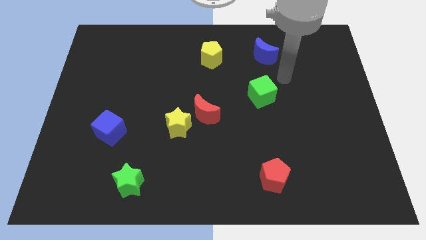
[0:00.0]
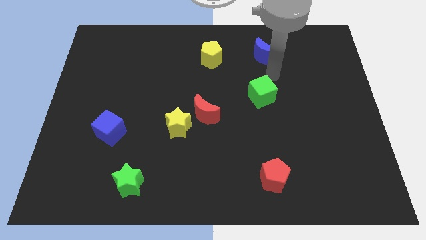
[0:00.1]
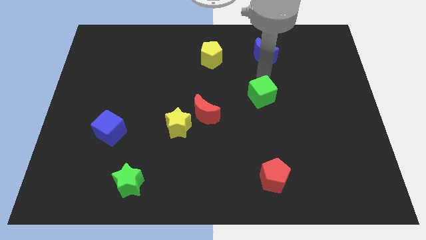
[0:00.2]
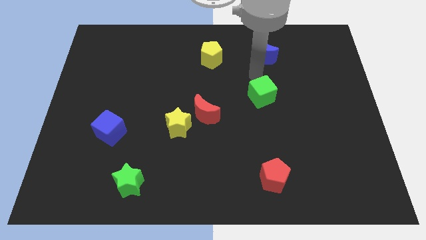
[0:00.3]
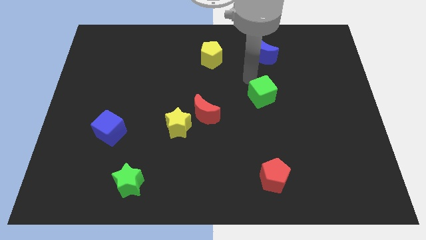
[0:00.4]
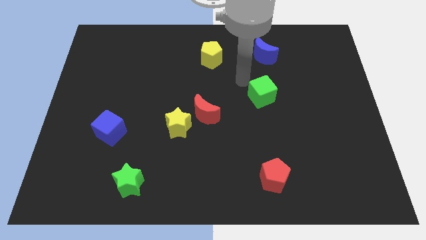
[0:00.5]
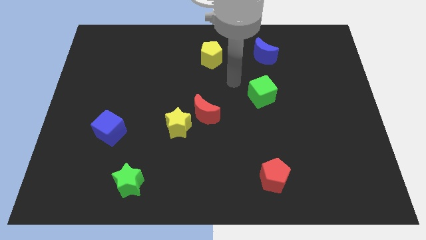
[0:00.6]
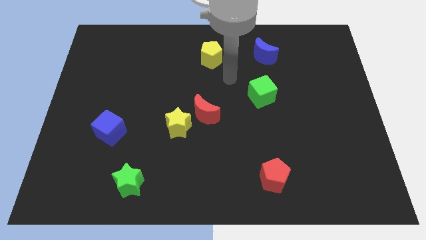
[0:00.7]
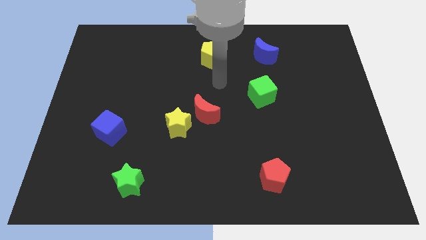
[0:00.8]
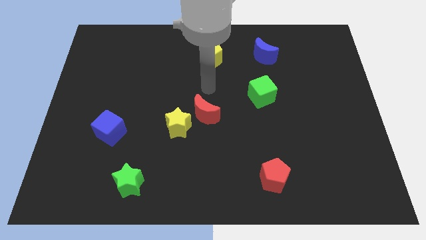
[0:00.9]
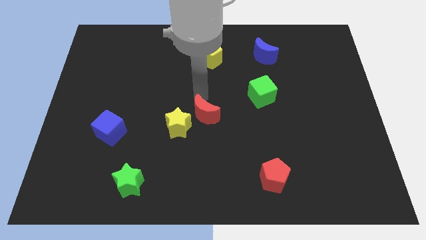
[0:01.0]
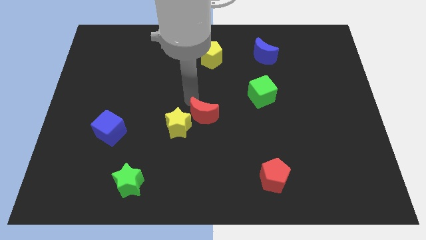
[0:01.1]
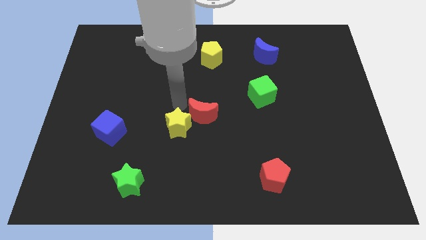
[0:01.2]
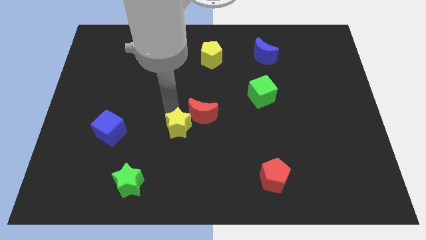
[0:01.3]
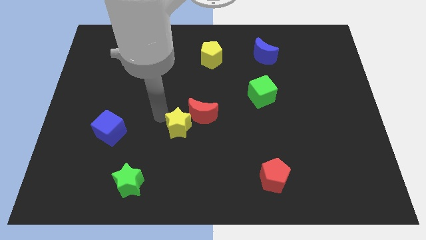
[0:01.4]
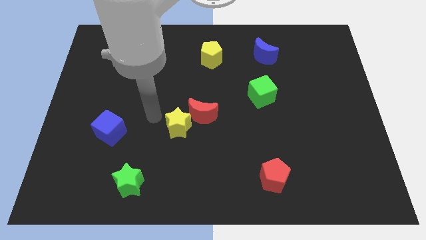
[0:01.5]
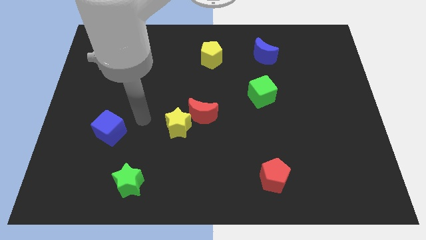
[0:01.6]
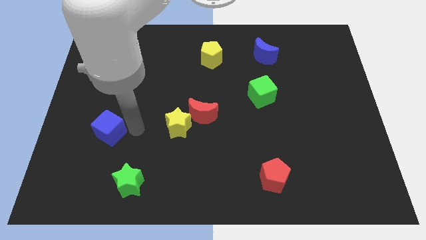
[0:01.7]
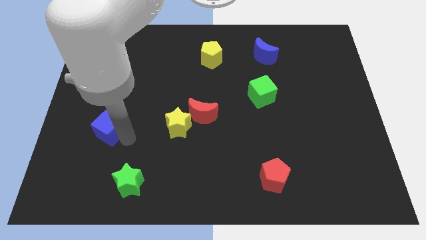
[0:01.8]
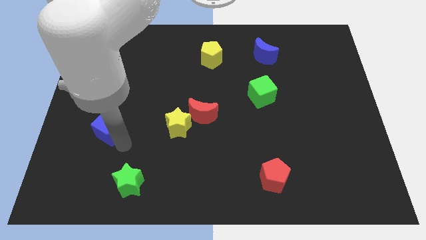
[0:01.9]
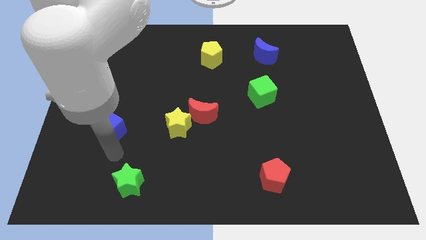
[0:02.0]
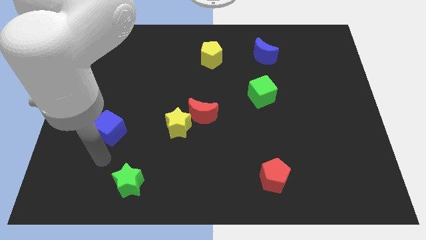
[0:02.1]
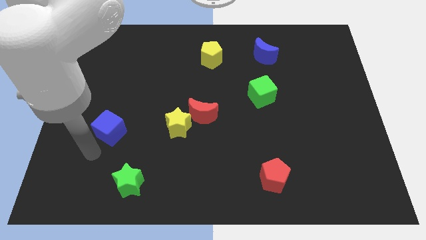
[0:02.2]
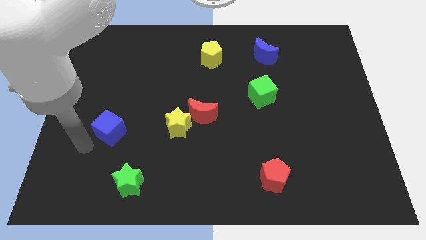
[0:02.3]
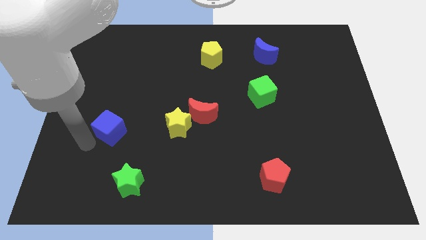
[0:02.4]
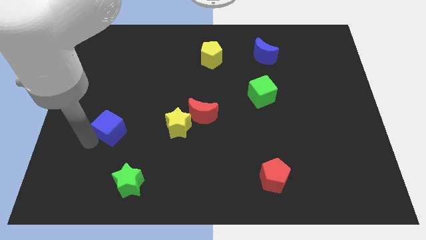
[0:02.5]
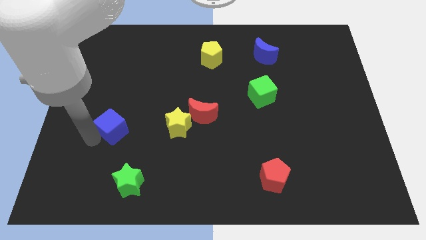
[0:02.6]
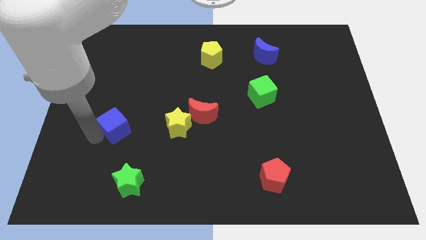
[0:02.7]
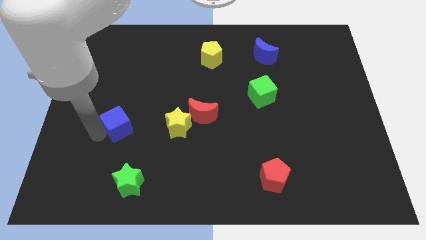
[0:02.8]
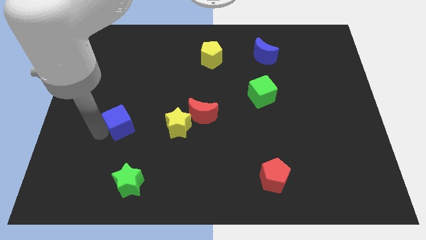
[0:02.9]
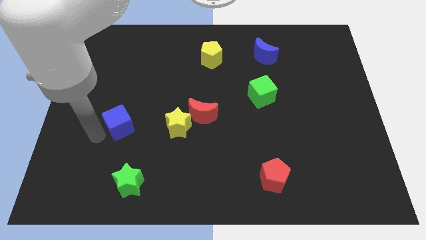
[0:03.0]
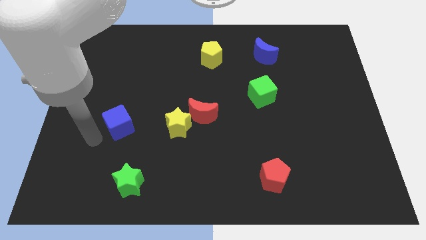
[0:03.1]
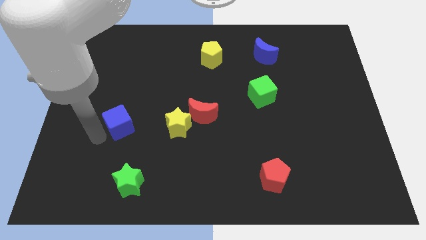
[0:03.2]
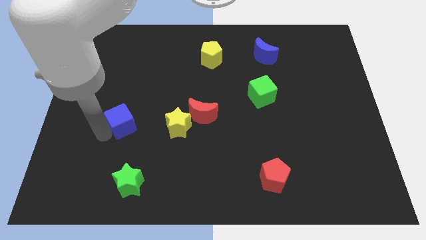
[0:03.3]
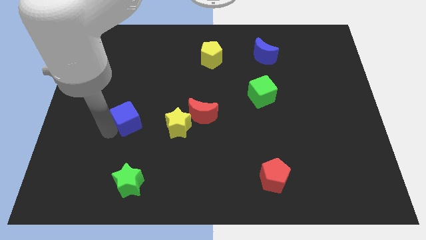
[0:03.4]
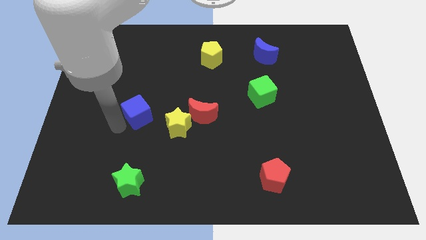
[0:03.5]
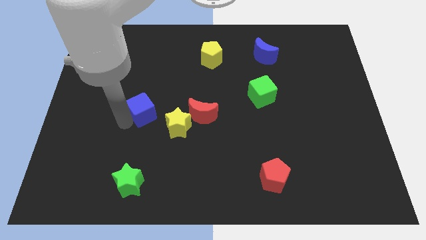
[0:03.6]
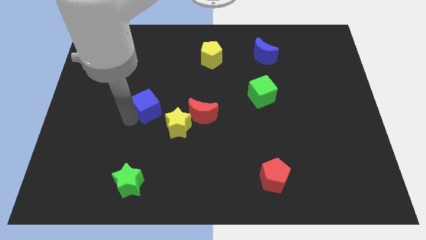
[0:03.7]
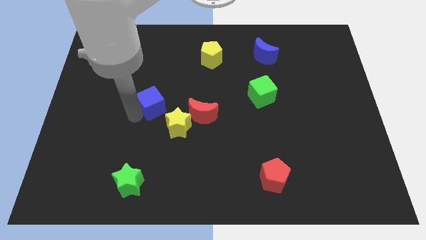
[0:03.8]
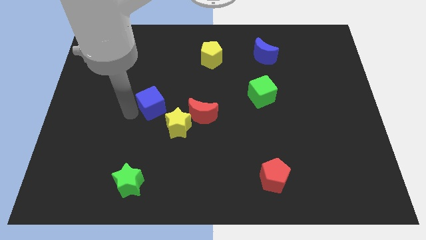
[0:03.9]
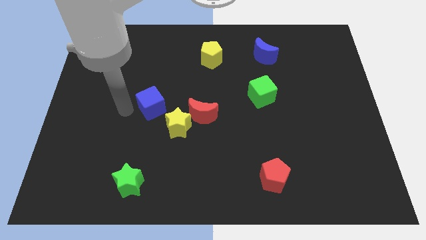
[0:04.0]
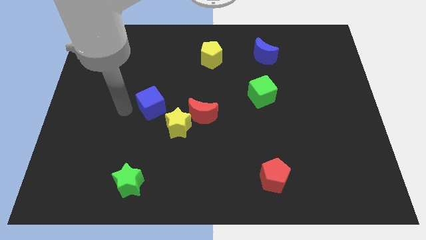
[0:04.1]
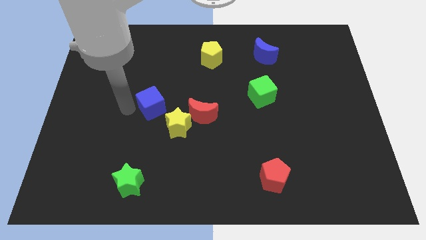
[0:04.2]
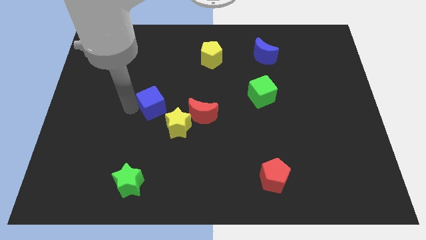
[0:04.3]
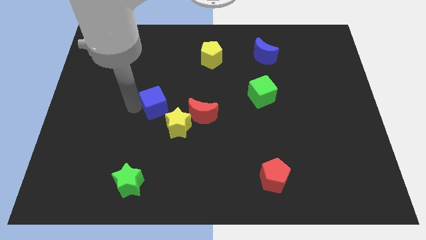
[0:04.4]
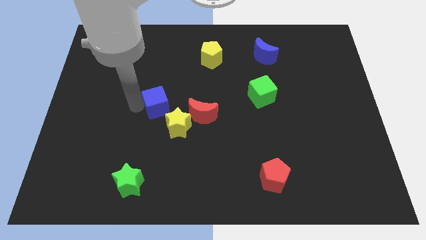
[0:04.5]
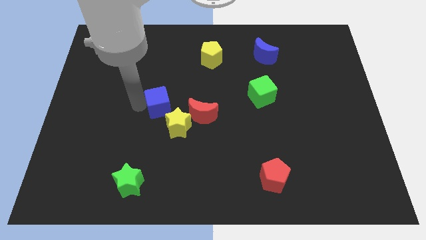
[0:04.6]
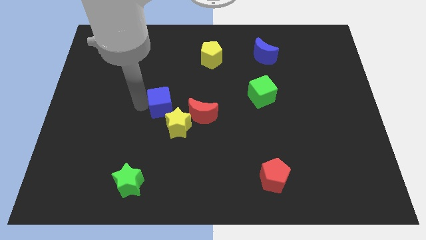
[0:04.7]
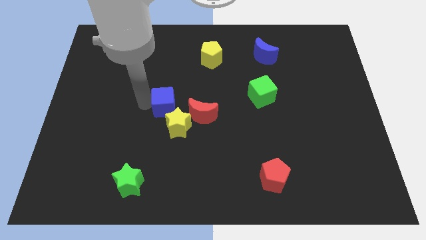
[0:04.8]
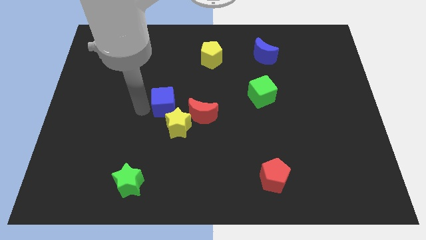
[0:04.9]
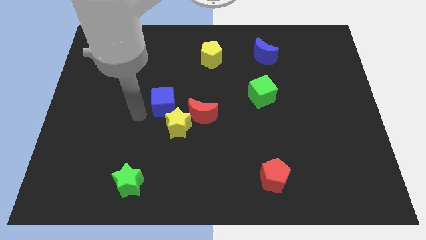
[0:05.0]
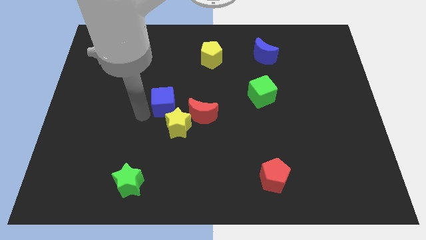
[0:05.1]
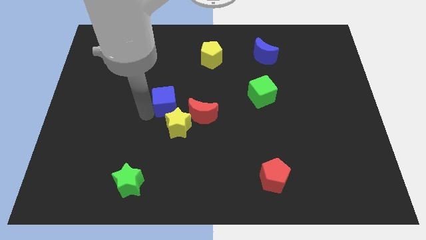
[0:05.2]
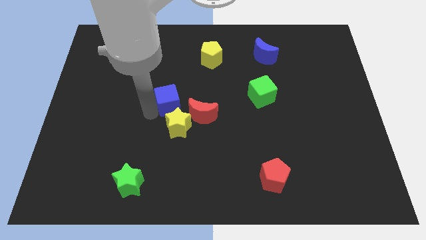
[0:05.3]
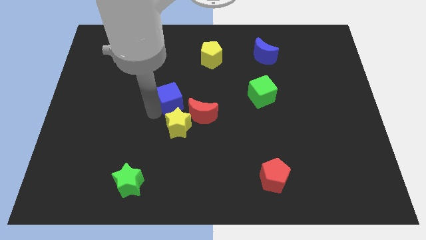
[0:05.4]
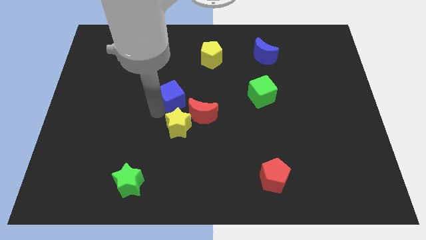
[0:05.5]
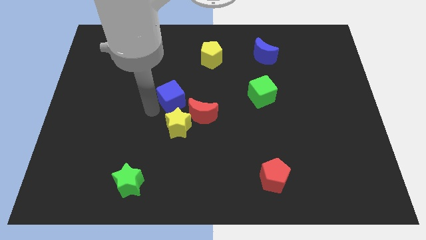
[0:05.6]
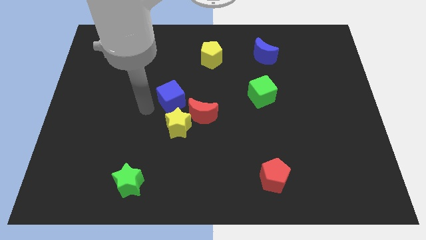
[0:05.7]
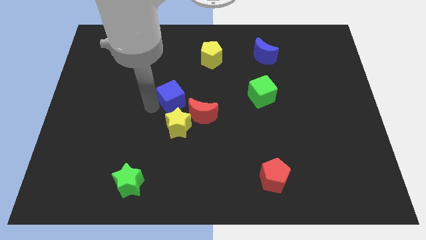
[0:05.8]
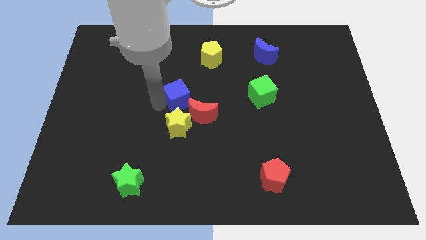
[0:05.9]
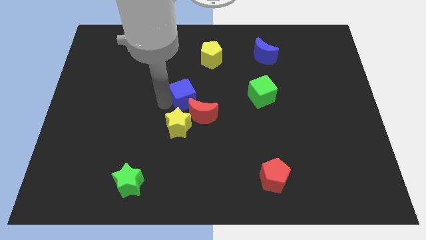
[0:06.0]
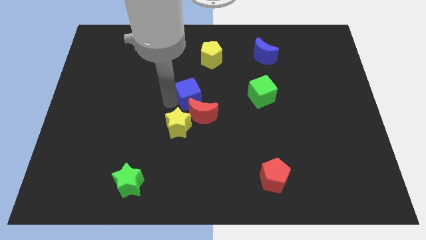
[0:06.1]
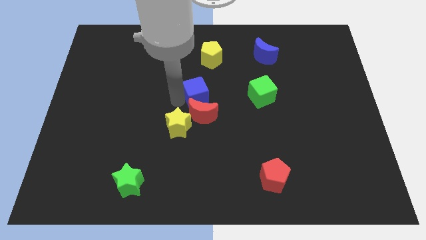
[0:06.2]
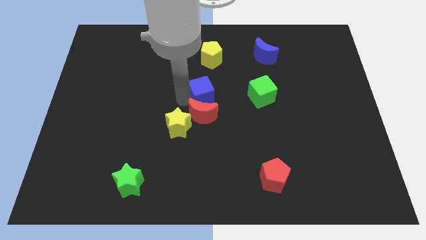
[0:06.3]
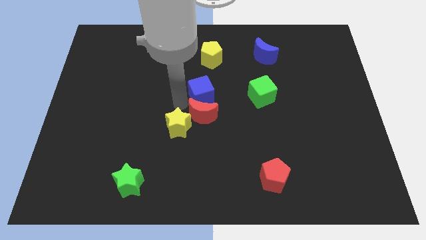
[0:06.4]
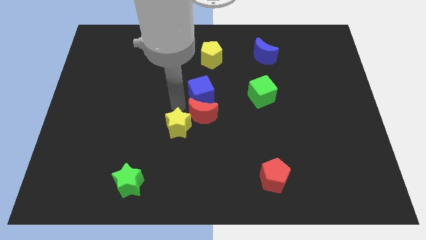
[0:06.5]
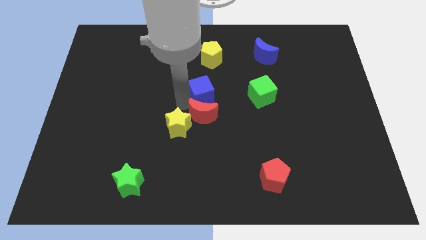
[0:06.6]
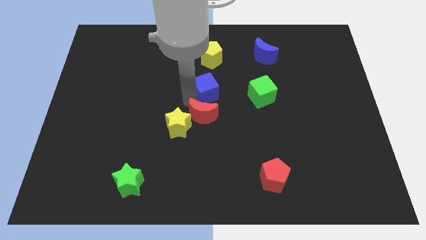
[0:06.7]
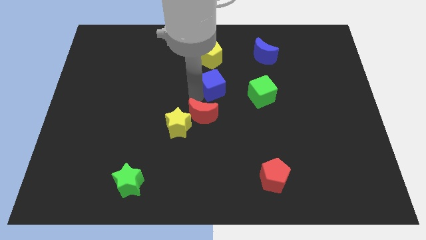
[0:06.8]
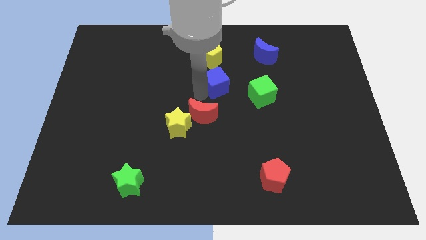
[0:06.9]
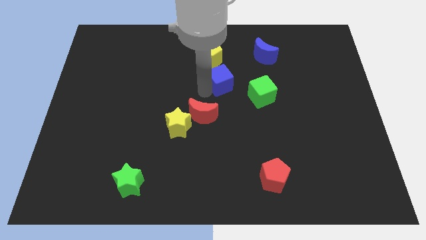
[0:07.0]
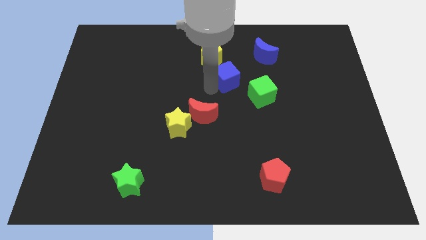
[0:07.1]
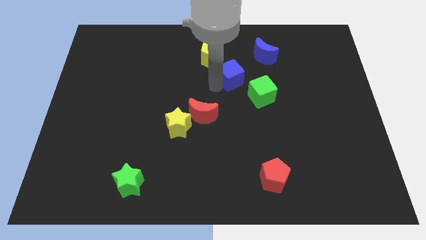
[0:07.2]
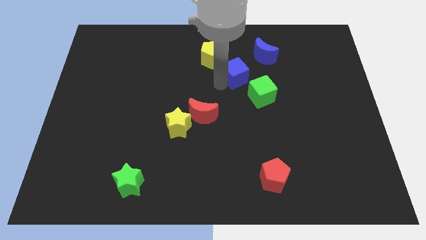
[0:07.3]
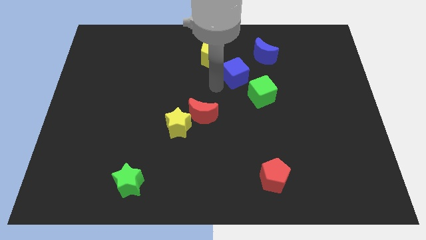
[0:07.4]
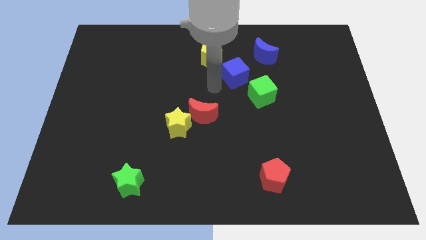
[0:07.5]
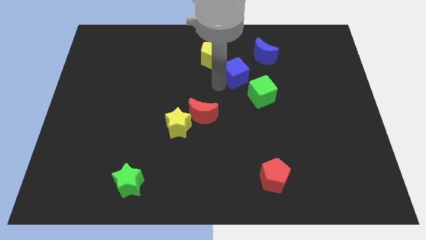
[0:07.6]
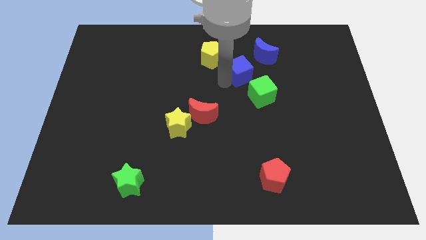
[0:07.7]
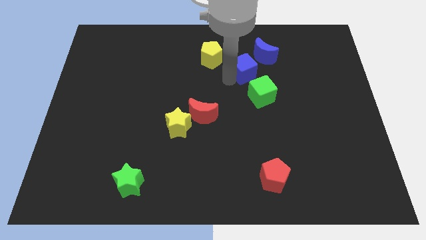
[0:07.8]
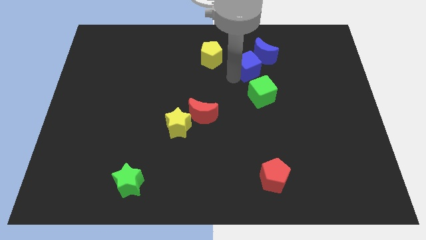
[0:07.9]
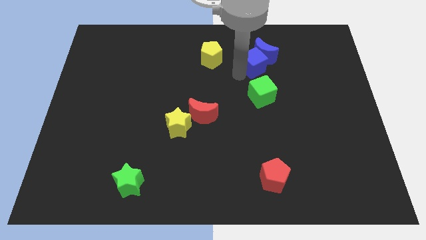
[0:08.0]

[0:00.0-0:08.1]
move the blue cube close to the blue moon
